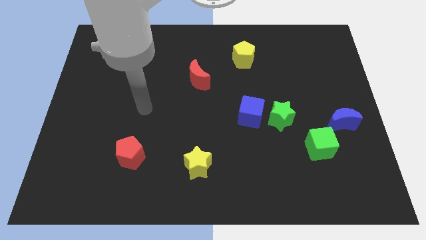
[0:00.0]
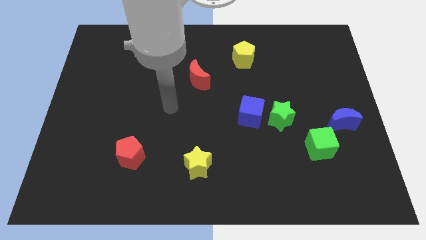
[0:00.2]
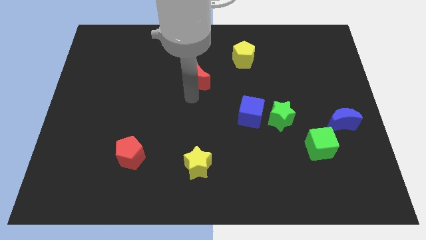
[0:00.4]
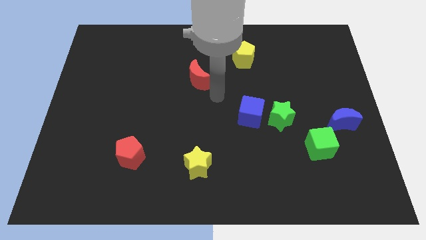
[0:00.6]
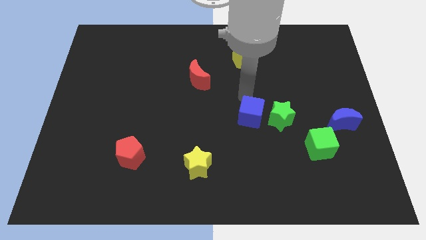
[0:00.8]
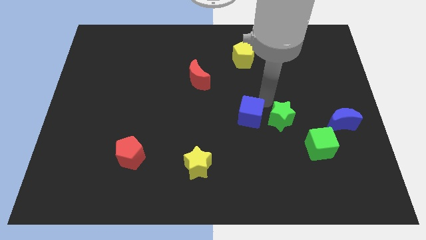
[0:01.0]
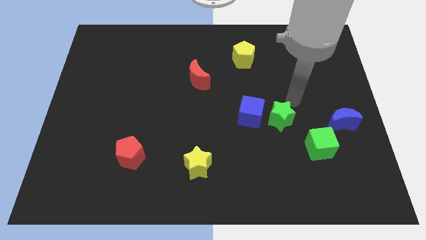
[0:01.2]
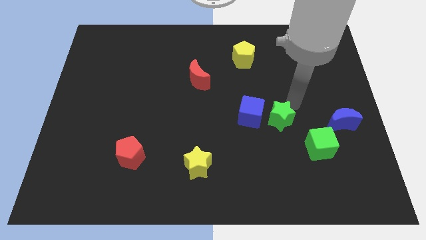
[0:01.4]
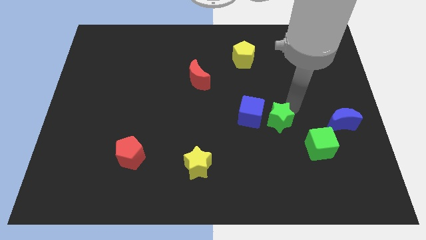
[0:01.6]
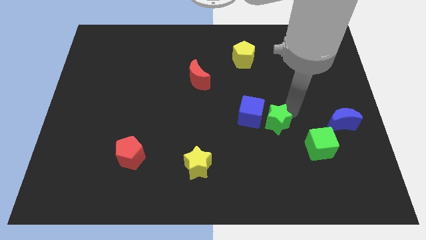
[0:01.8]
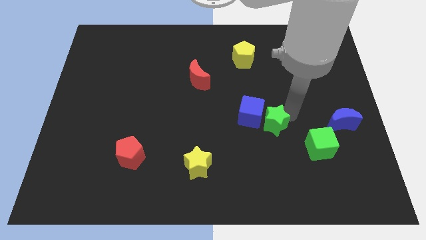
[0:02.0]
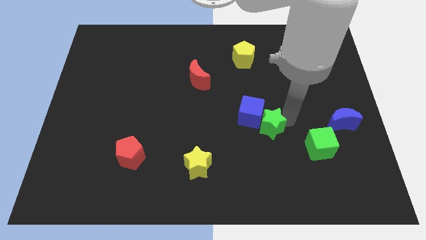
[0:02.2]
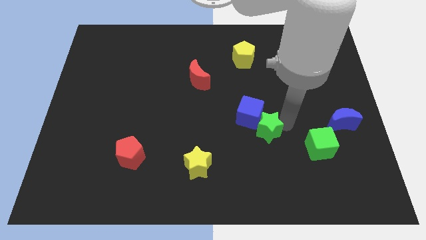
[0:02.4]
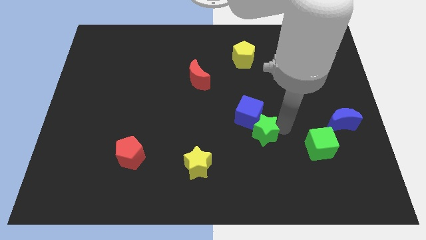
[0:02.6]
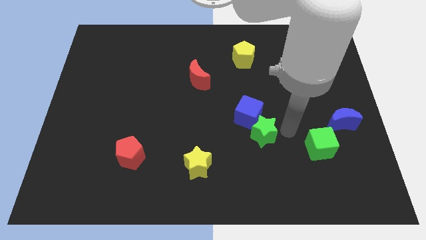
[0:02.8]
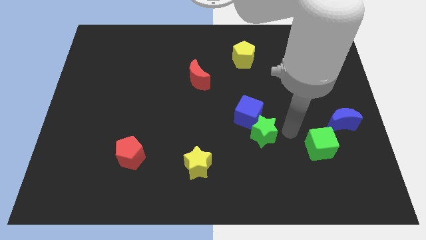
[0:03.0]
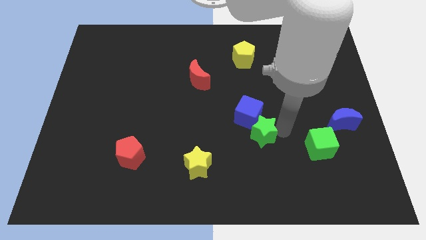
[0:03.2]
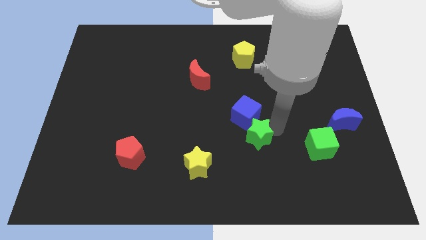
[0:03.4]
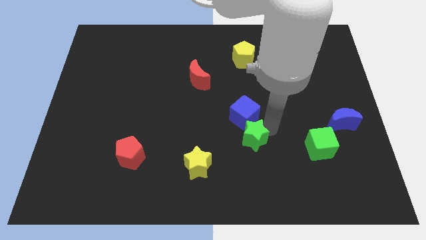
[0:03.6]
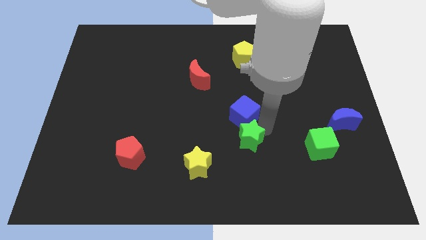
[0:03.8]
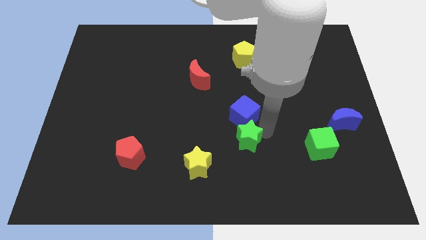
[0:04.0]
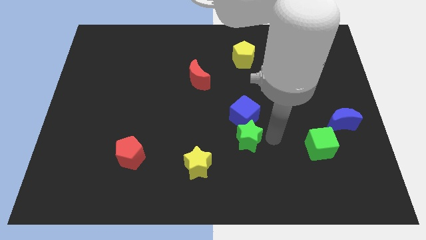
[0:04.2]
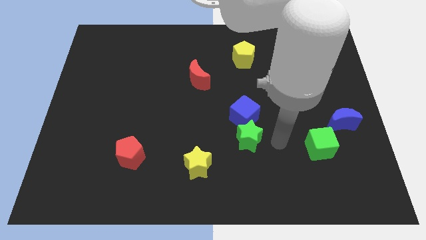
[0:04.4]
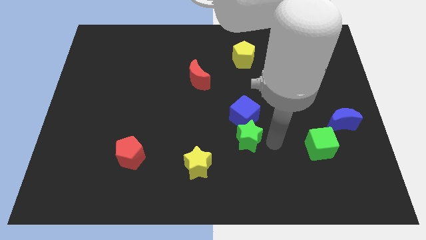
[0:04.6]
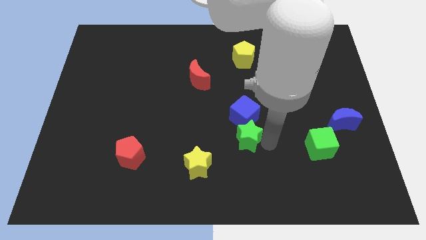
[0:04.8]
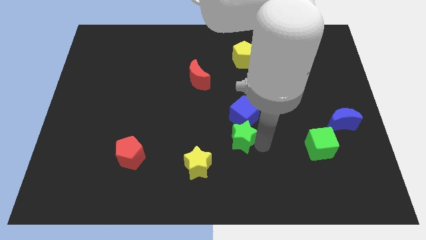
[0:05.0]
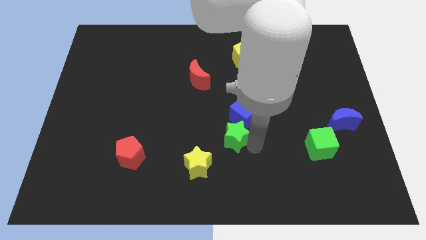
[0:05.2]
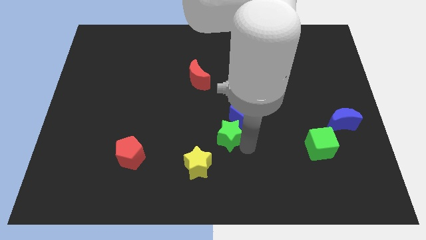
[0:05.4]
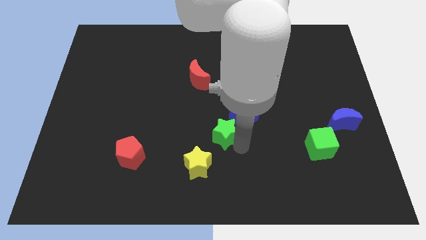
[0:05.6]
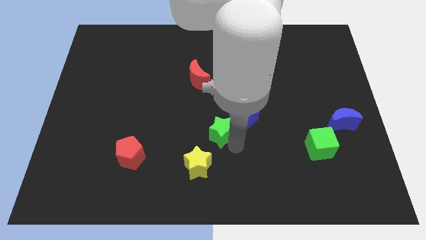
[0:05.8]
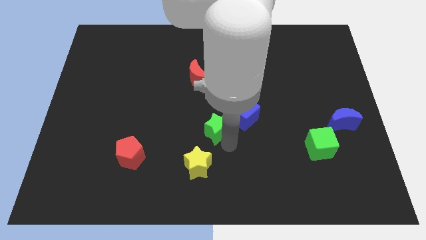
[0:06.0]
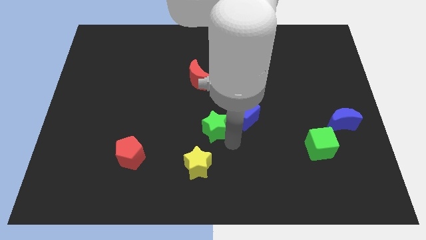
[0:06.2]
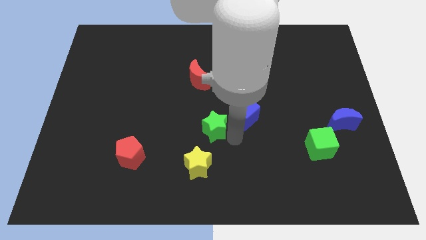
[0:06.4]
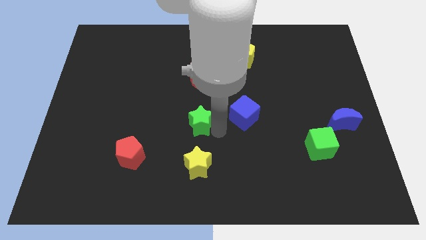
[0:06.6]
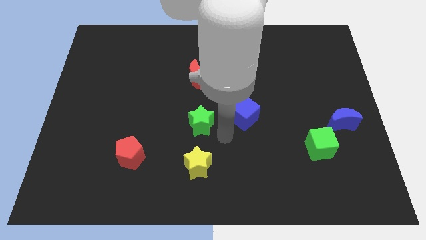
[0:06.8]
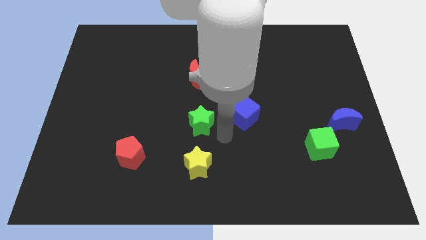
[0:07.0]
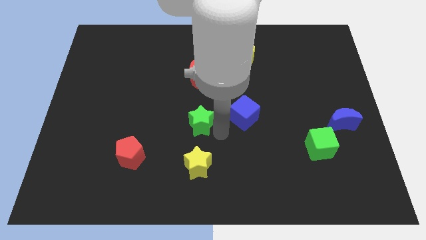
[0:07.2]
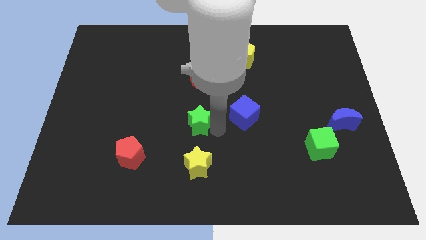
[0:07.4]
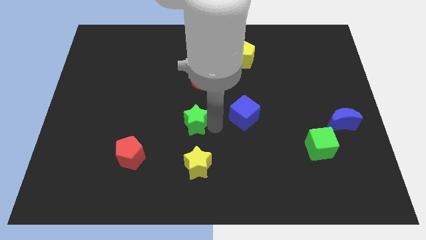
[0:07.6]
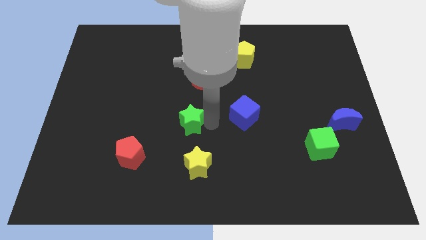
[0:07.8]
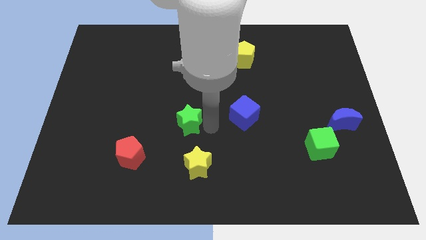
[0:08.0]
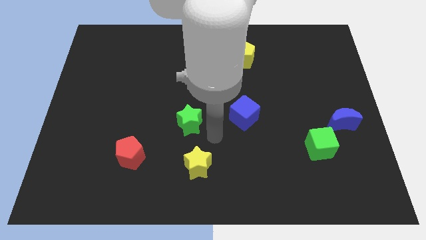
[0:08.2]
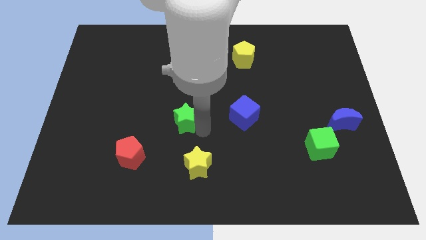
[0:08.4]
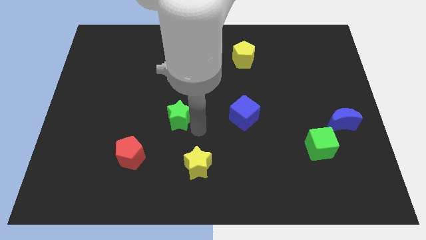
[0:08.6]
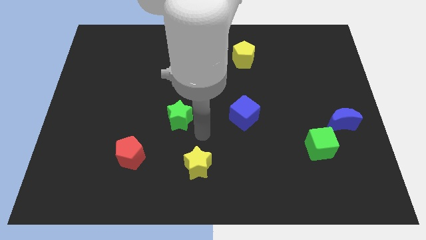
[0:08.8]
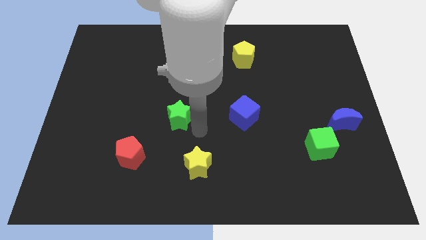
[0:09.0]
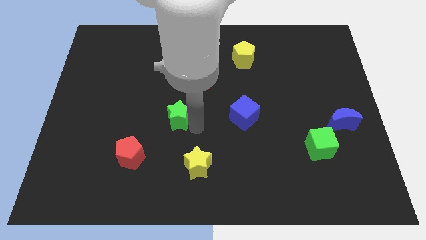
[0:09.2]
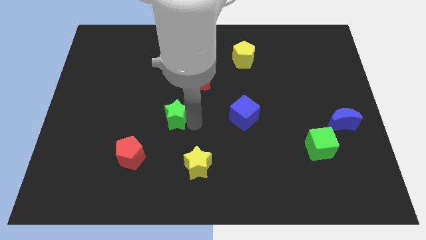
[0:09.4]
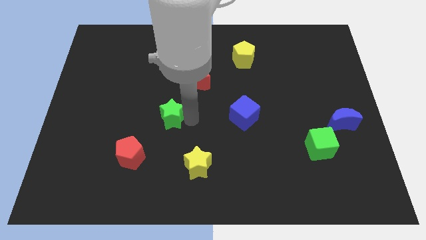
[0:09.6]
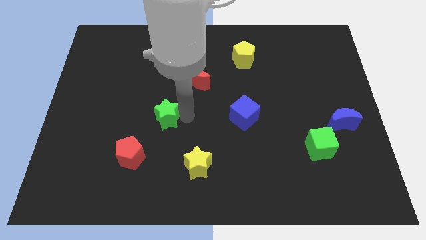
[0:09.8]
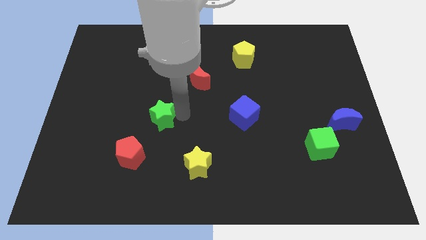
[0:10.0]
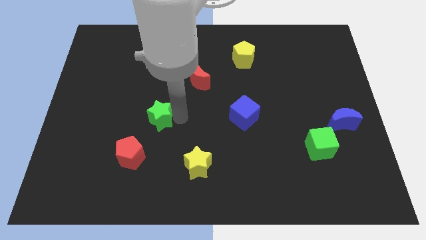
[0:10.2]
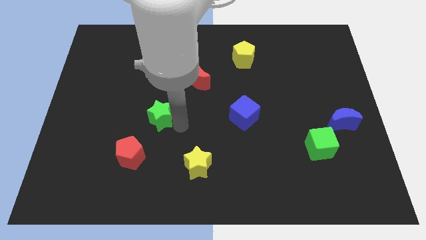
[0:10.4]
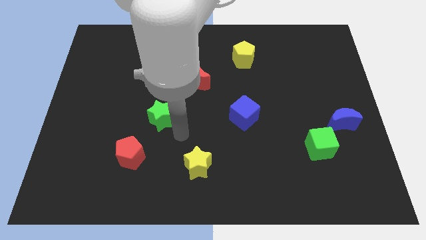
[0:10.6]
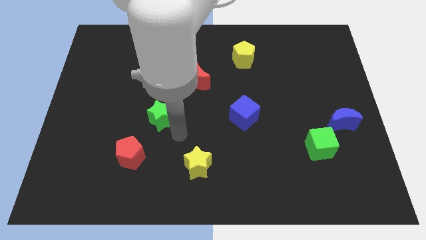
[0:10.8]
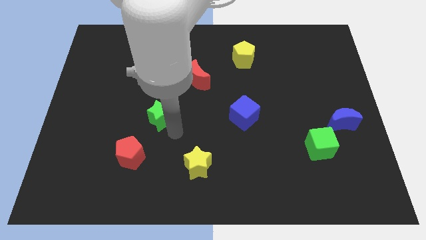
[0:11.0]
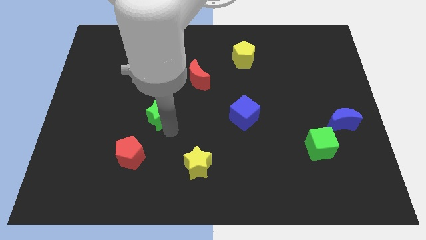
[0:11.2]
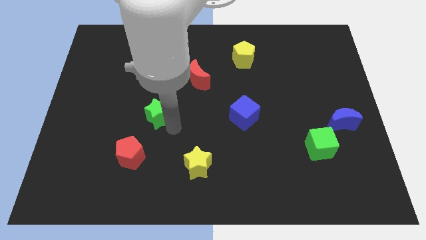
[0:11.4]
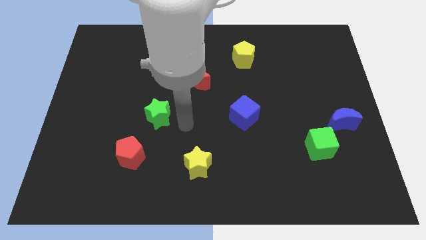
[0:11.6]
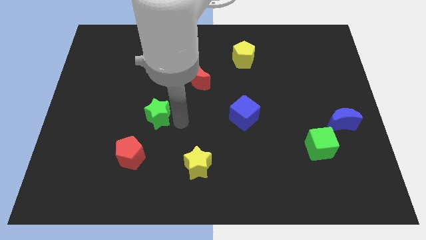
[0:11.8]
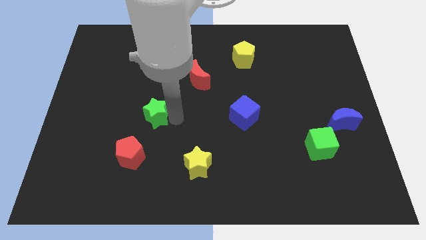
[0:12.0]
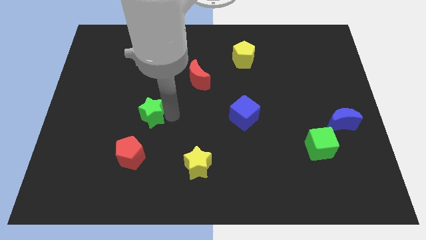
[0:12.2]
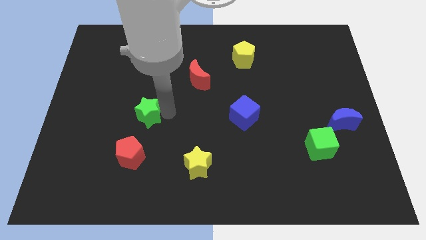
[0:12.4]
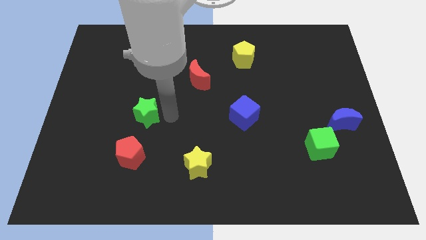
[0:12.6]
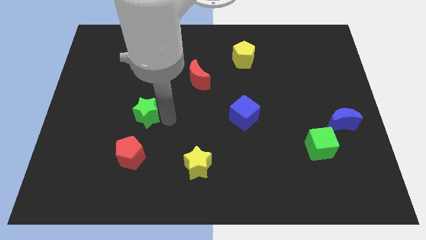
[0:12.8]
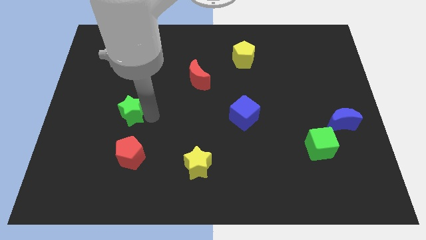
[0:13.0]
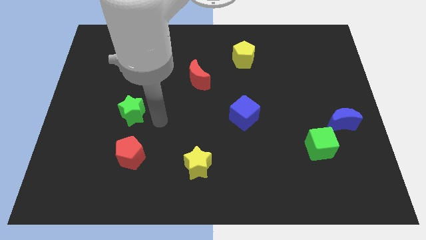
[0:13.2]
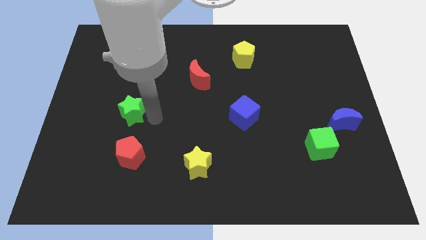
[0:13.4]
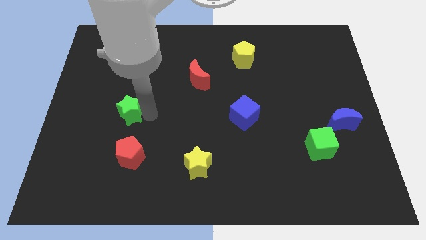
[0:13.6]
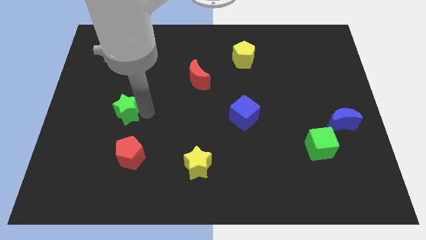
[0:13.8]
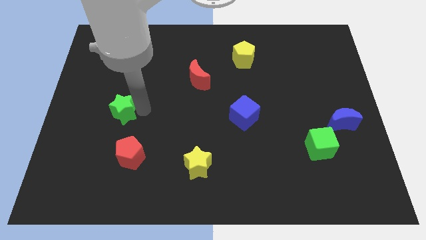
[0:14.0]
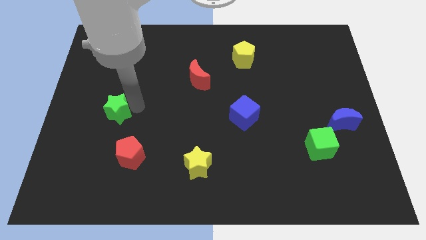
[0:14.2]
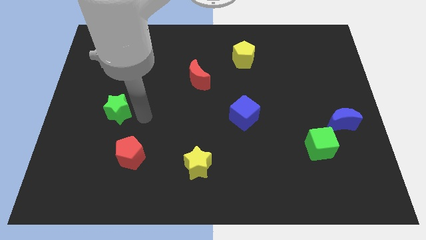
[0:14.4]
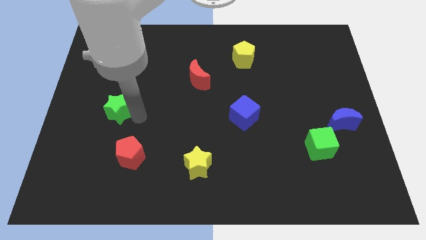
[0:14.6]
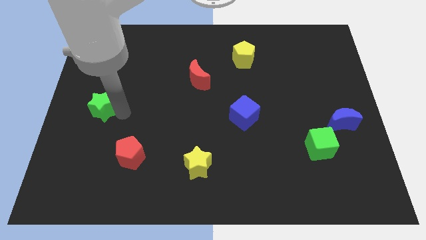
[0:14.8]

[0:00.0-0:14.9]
push the green star to the left side of the board
